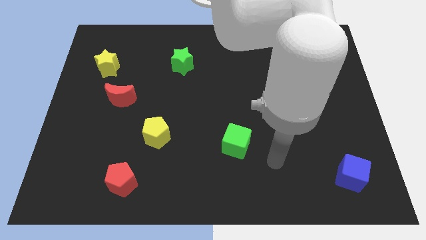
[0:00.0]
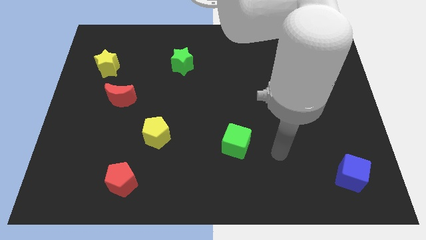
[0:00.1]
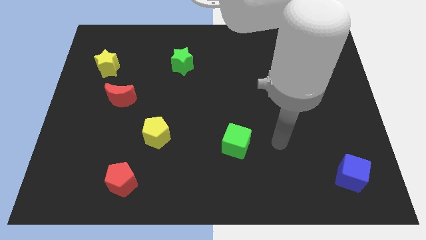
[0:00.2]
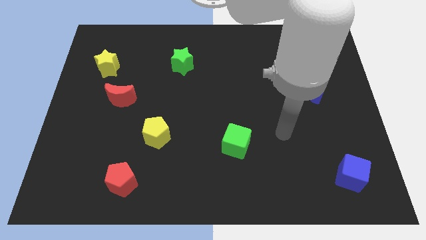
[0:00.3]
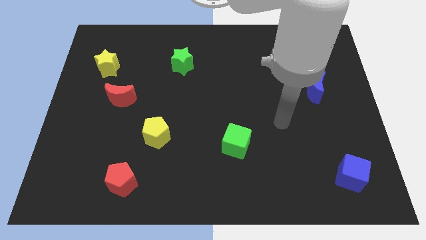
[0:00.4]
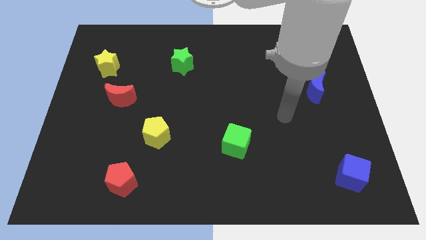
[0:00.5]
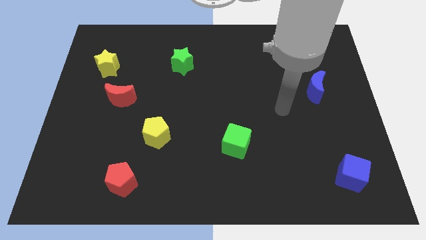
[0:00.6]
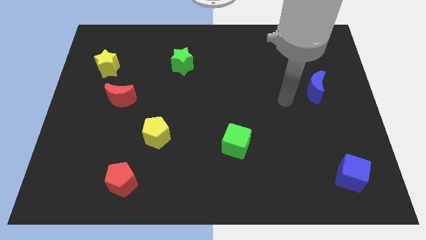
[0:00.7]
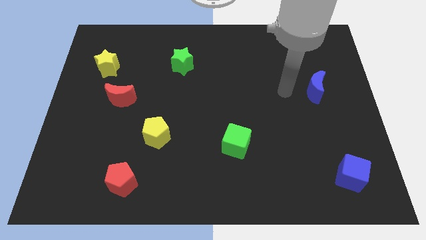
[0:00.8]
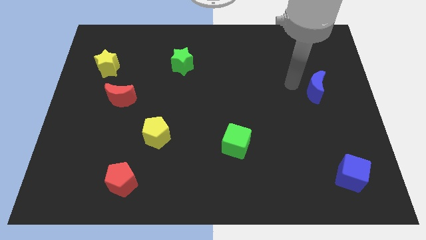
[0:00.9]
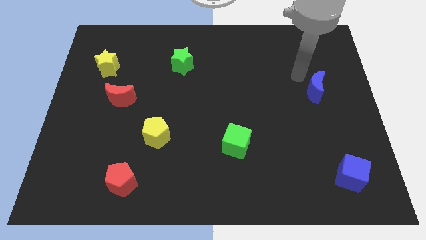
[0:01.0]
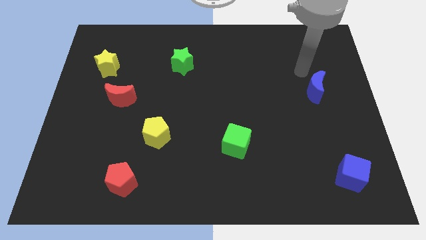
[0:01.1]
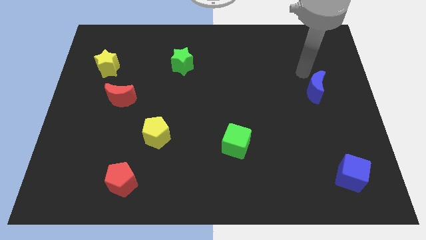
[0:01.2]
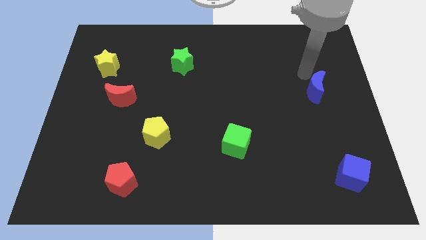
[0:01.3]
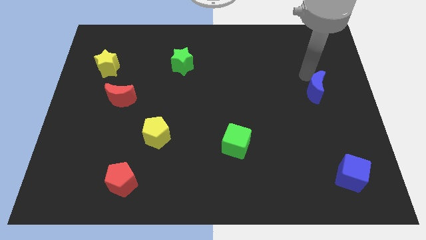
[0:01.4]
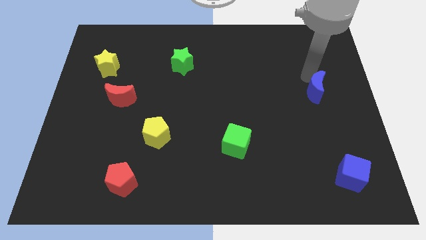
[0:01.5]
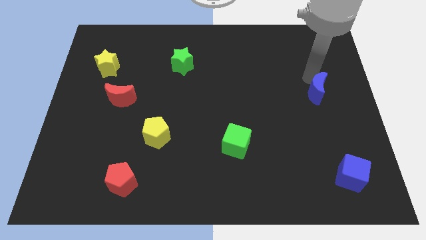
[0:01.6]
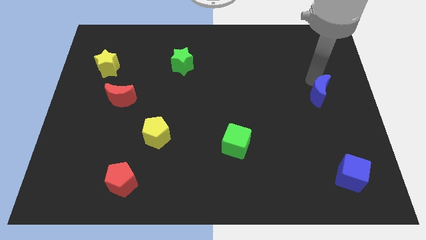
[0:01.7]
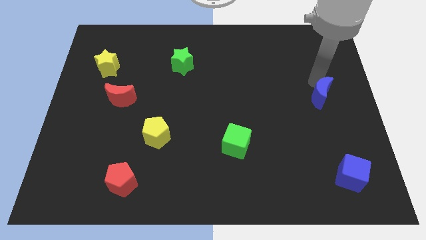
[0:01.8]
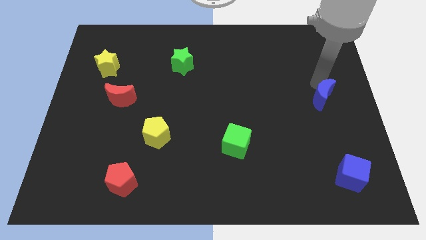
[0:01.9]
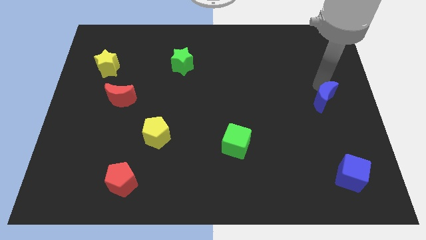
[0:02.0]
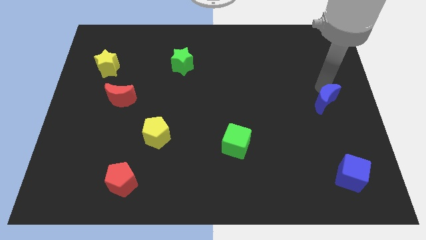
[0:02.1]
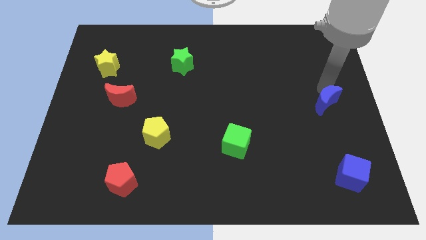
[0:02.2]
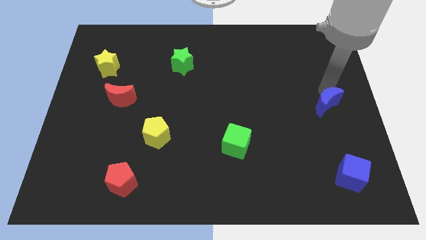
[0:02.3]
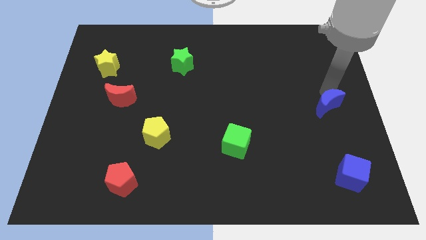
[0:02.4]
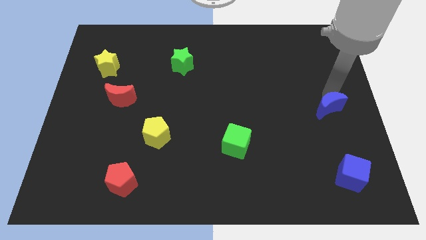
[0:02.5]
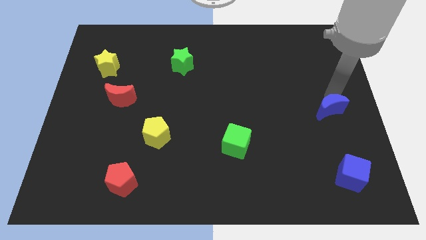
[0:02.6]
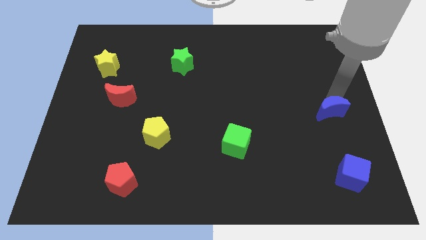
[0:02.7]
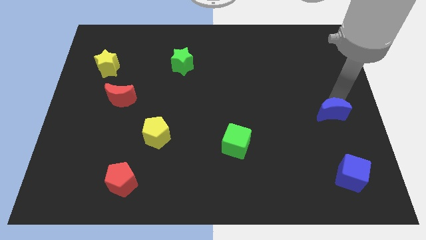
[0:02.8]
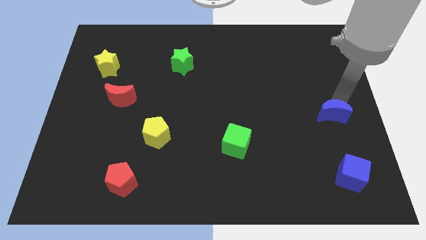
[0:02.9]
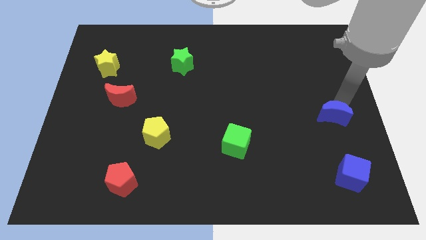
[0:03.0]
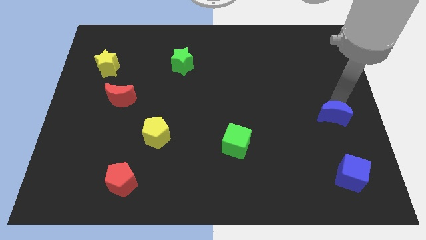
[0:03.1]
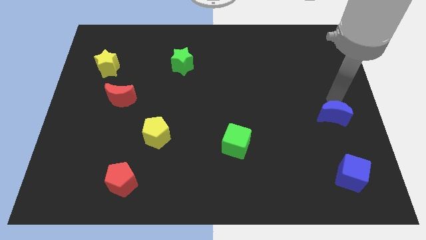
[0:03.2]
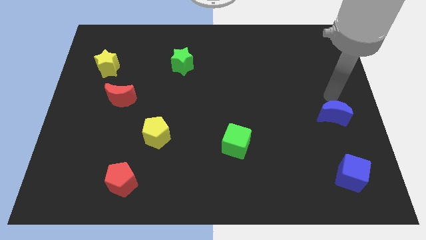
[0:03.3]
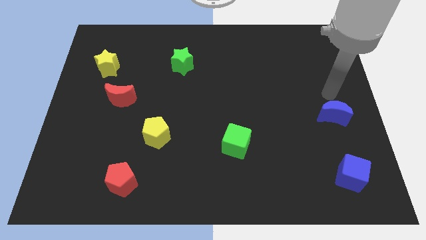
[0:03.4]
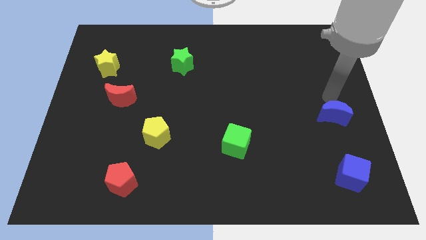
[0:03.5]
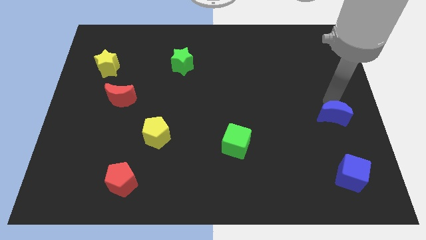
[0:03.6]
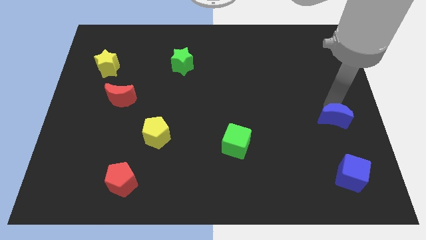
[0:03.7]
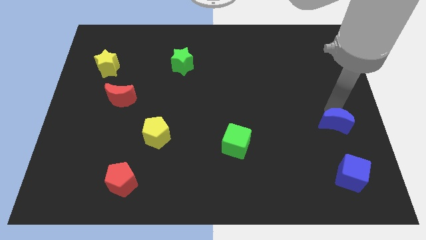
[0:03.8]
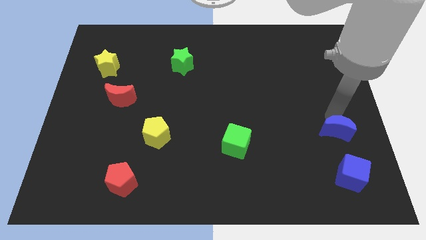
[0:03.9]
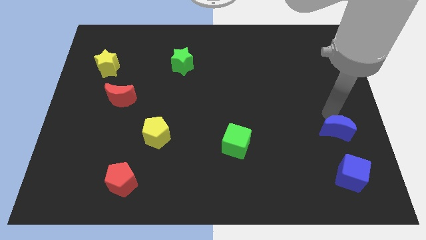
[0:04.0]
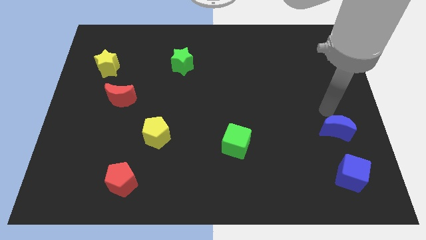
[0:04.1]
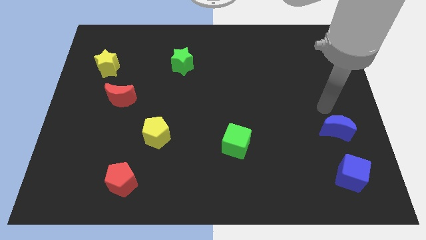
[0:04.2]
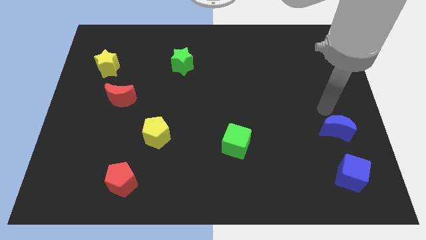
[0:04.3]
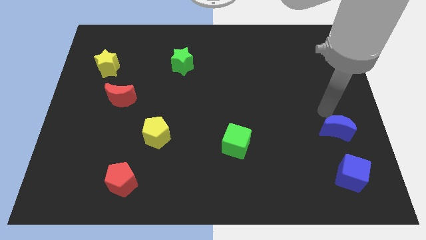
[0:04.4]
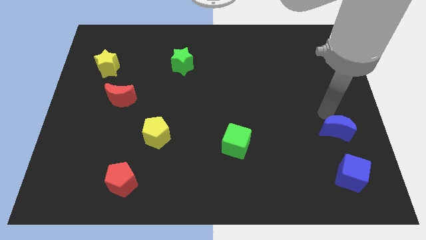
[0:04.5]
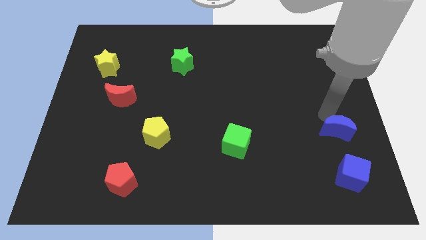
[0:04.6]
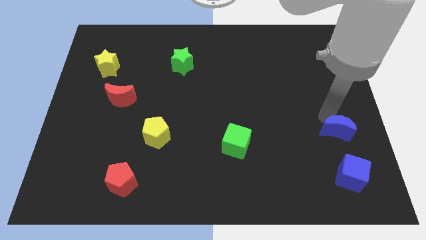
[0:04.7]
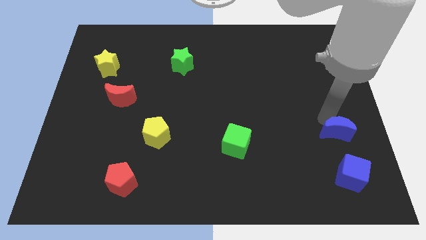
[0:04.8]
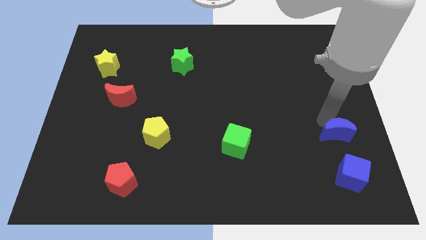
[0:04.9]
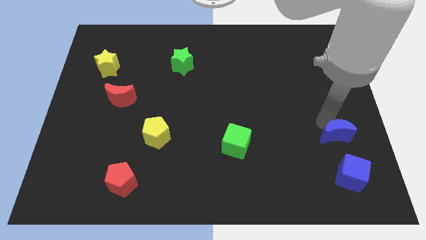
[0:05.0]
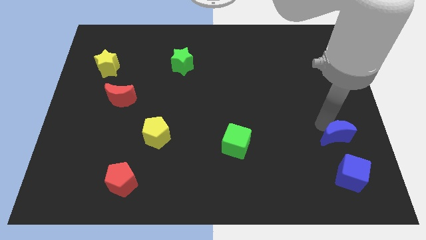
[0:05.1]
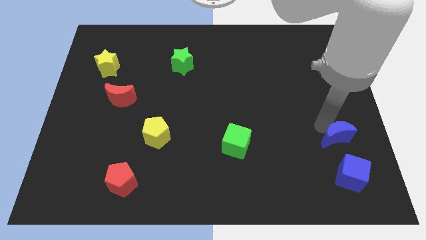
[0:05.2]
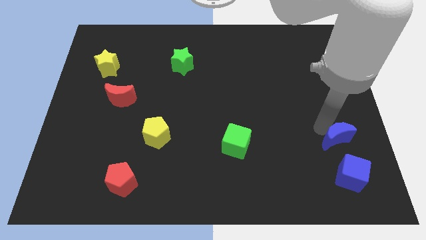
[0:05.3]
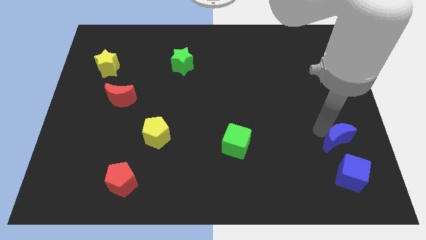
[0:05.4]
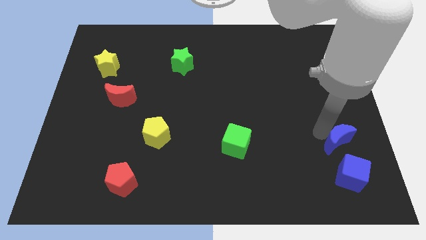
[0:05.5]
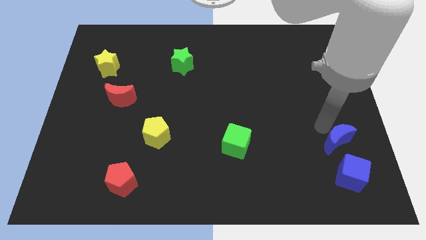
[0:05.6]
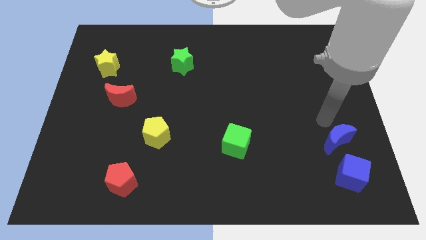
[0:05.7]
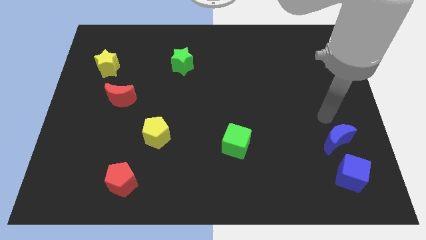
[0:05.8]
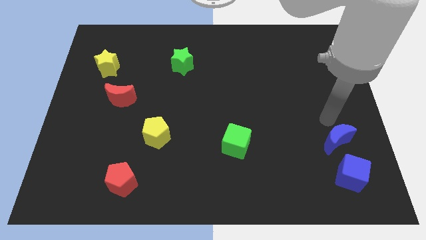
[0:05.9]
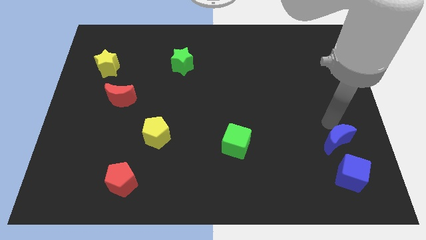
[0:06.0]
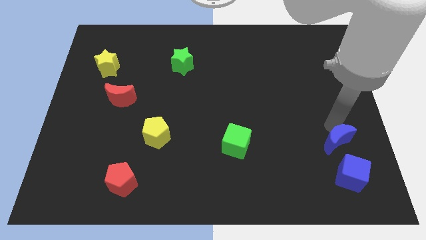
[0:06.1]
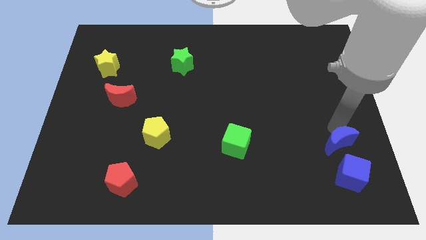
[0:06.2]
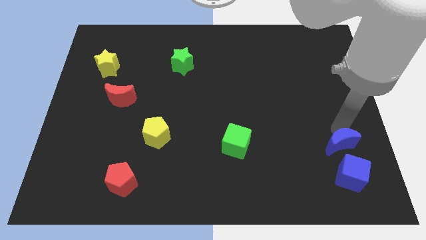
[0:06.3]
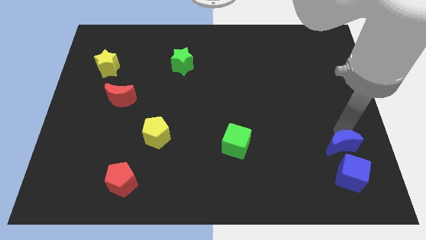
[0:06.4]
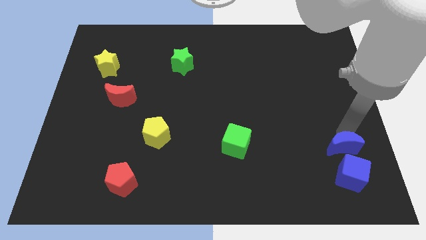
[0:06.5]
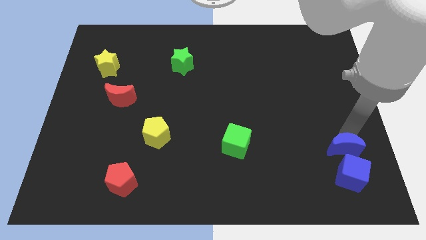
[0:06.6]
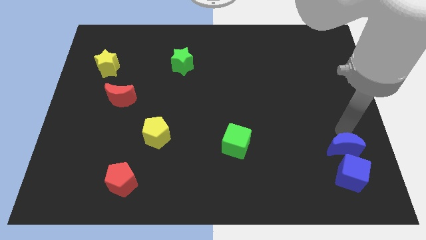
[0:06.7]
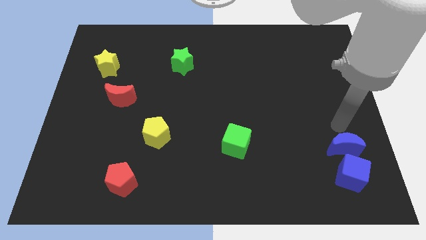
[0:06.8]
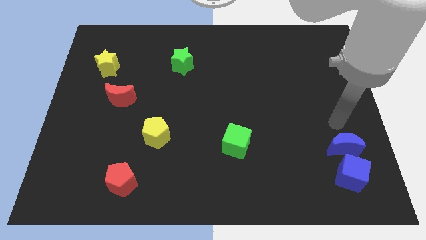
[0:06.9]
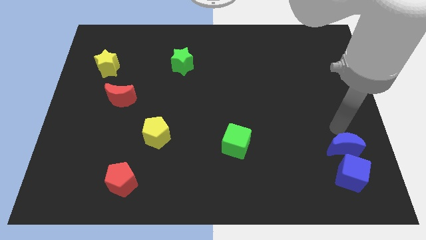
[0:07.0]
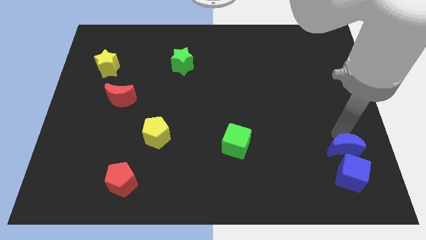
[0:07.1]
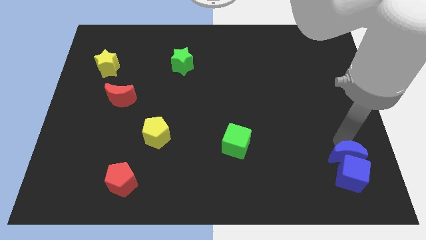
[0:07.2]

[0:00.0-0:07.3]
push the blue moon next to the blue cube

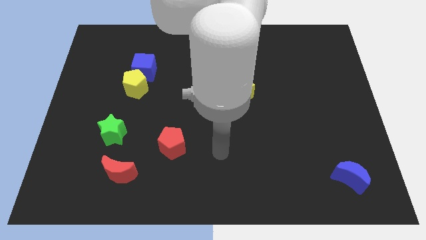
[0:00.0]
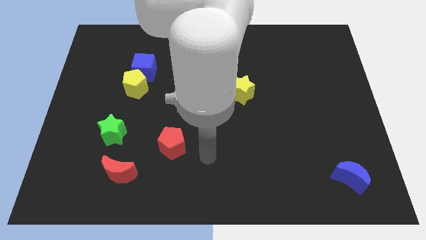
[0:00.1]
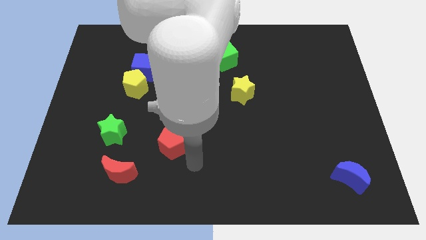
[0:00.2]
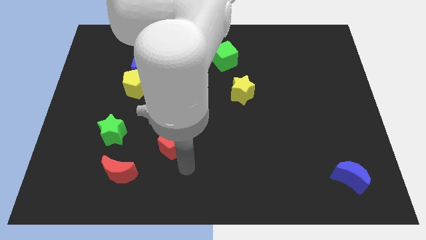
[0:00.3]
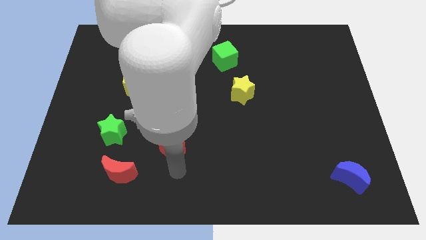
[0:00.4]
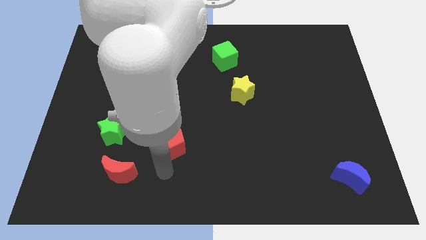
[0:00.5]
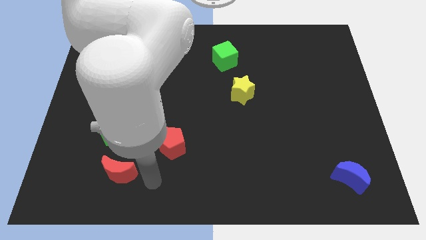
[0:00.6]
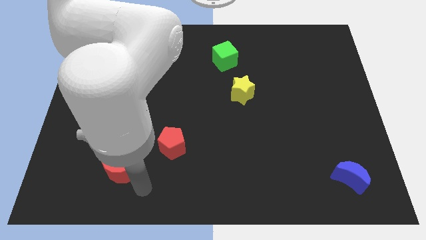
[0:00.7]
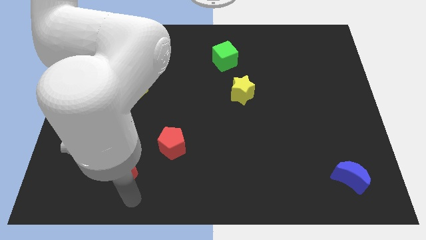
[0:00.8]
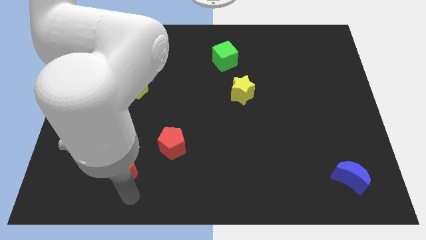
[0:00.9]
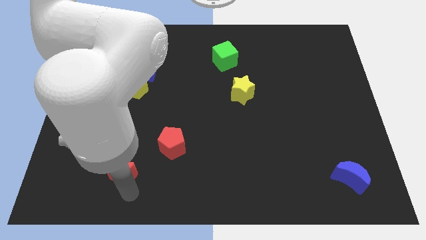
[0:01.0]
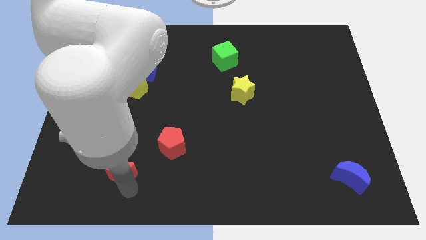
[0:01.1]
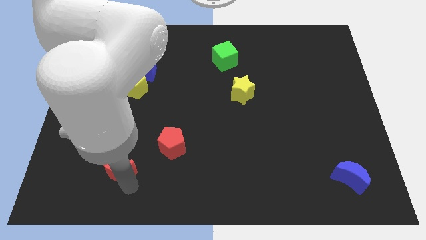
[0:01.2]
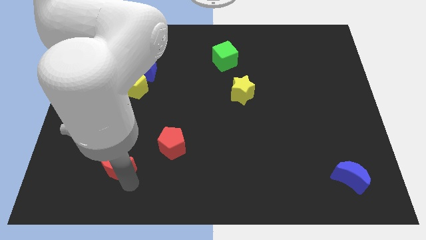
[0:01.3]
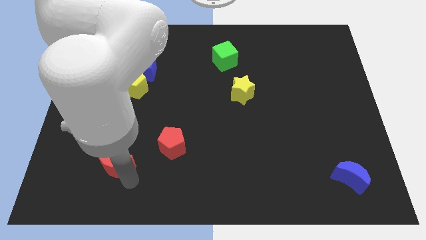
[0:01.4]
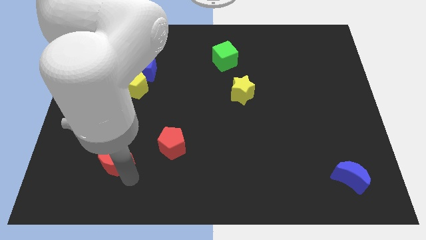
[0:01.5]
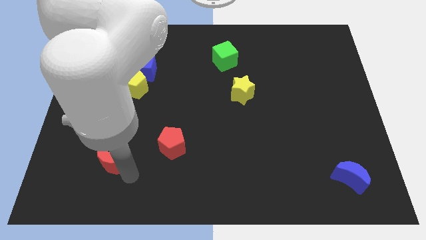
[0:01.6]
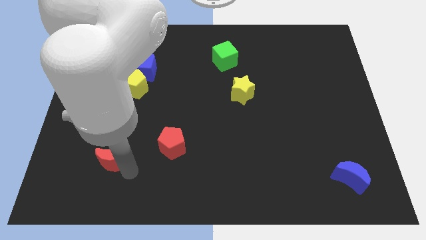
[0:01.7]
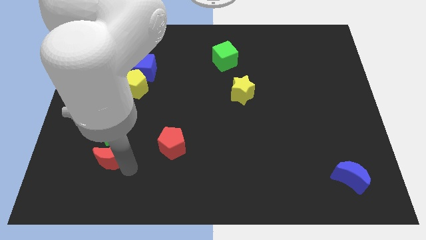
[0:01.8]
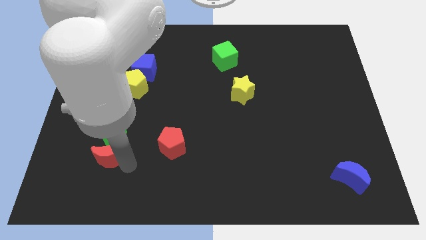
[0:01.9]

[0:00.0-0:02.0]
slide the red moon towards the green star
